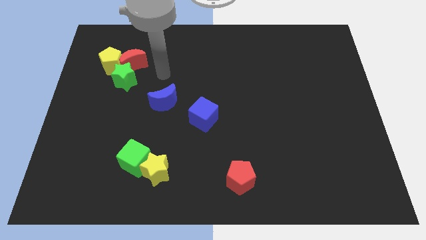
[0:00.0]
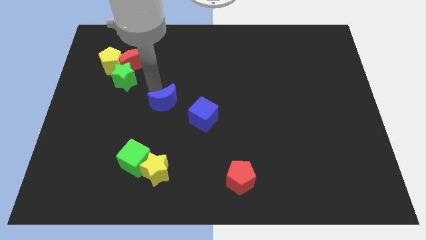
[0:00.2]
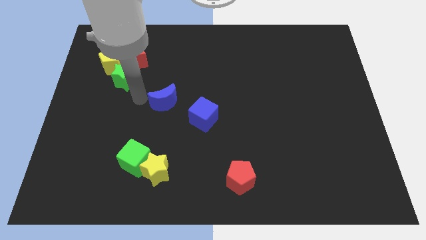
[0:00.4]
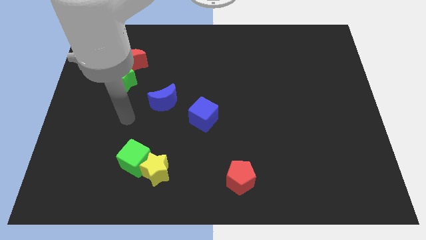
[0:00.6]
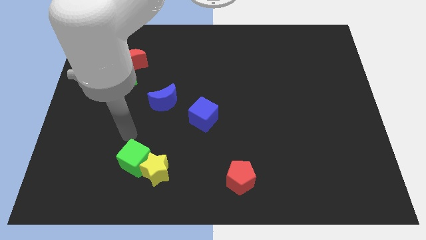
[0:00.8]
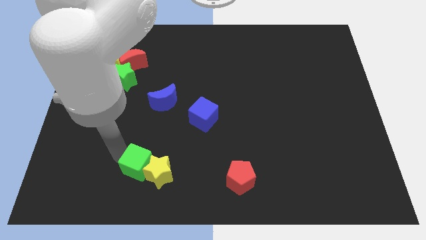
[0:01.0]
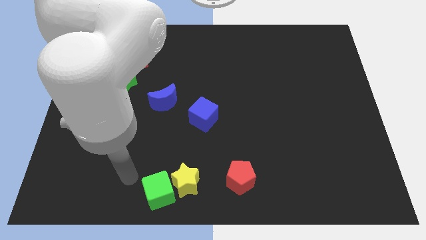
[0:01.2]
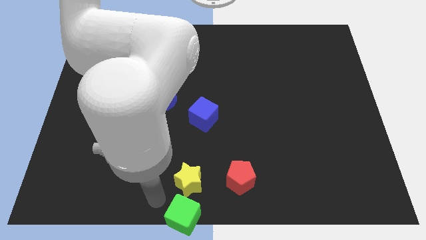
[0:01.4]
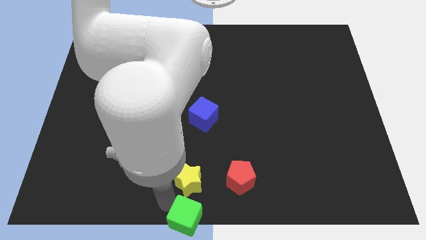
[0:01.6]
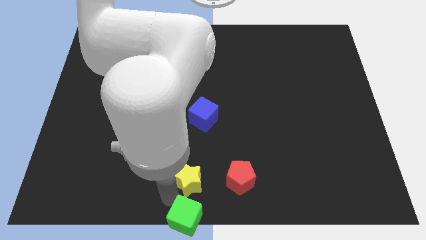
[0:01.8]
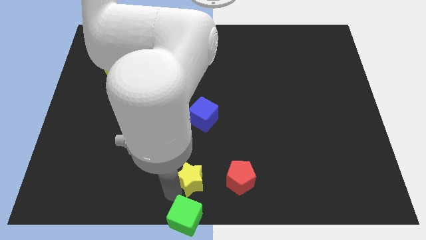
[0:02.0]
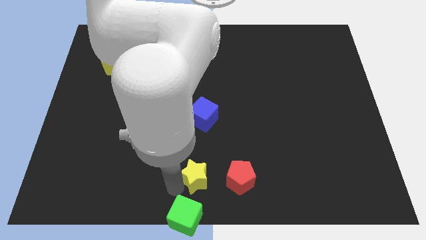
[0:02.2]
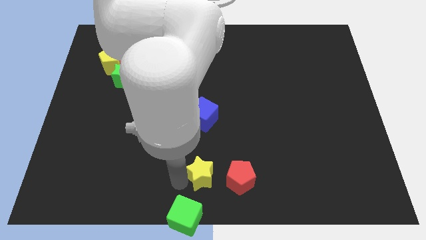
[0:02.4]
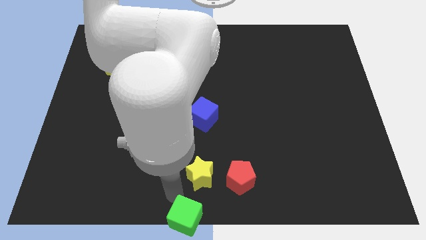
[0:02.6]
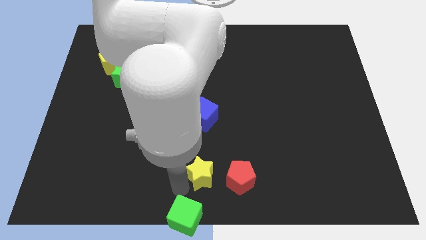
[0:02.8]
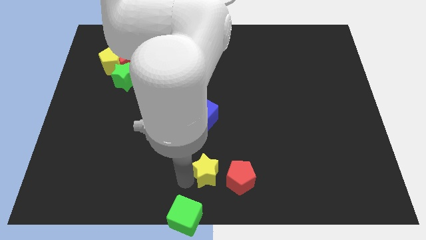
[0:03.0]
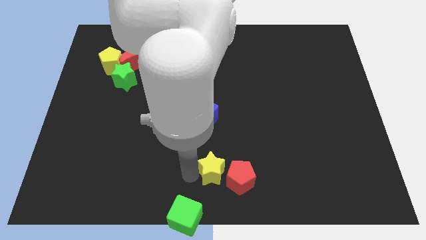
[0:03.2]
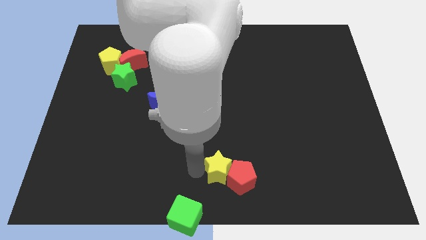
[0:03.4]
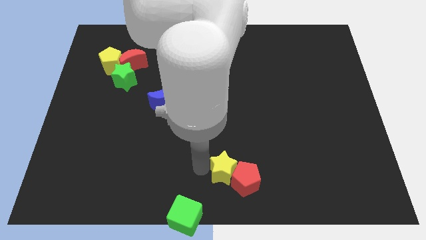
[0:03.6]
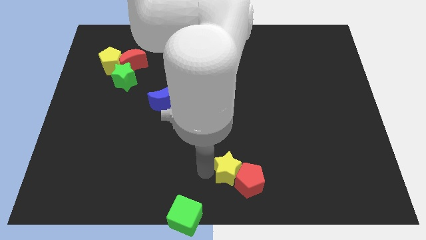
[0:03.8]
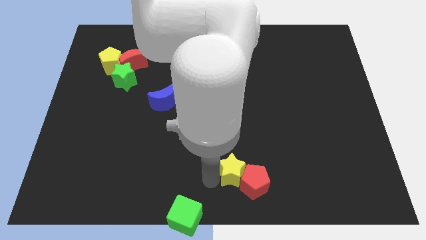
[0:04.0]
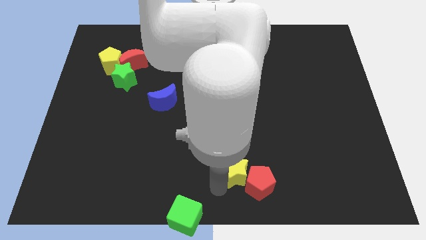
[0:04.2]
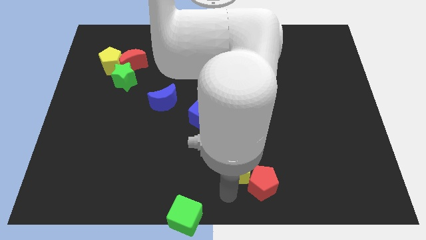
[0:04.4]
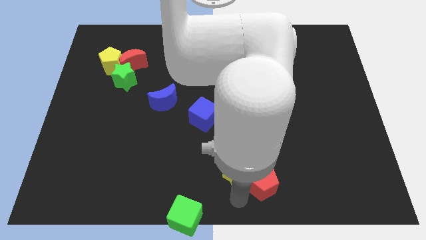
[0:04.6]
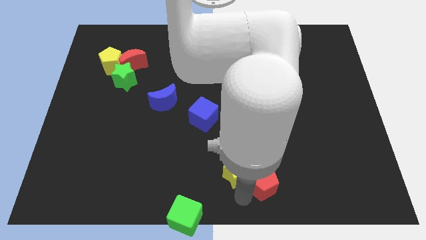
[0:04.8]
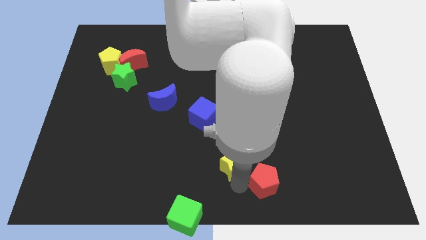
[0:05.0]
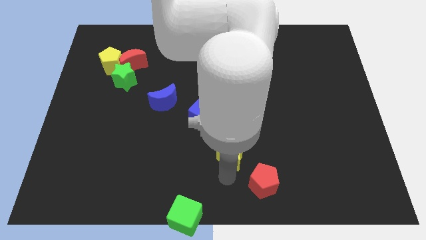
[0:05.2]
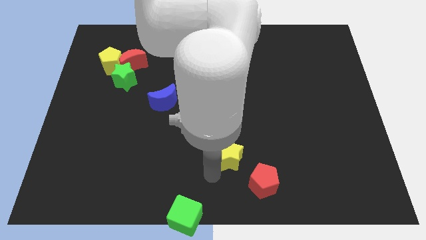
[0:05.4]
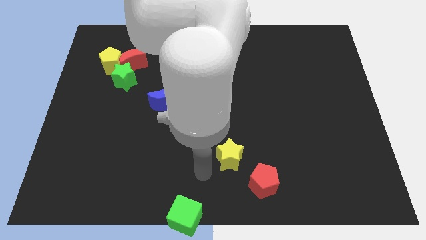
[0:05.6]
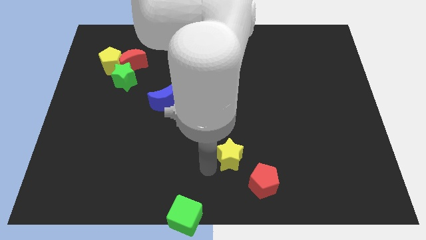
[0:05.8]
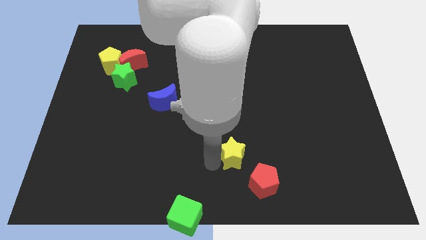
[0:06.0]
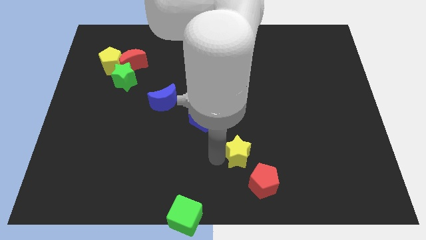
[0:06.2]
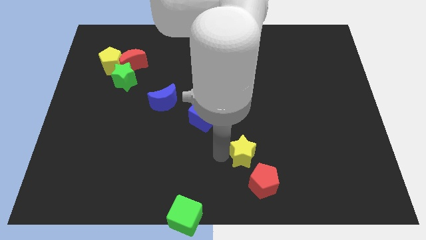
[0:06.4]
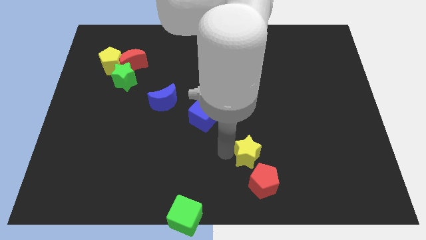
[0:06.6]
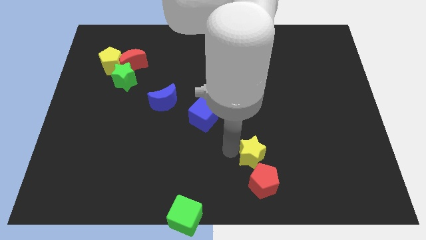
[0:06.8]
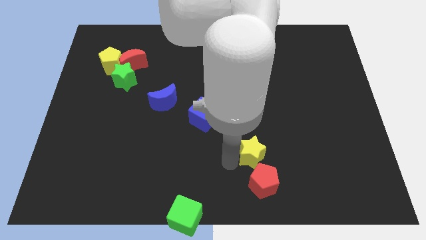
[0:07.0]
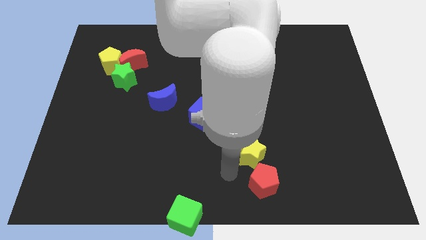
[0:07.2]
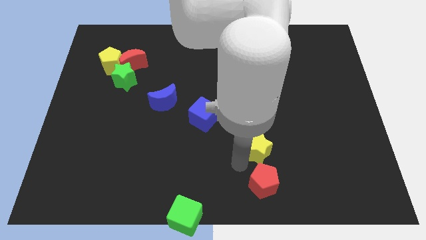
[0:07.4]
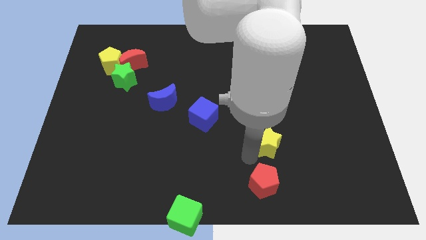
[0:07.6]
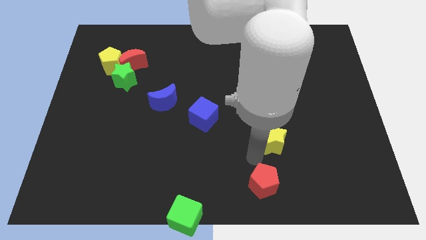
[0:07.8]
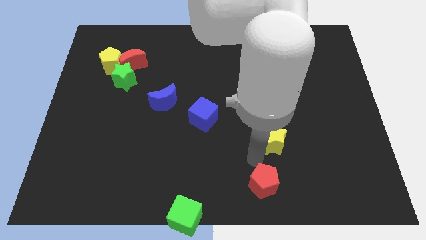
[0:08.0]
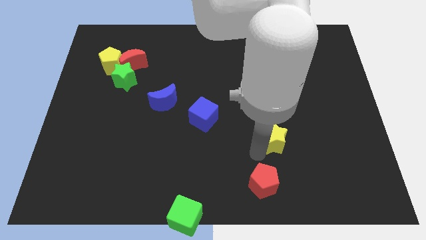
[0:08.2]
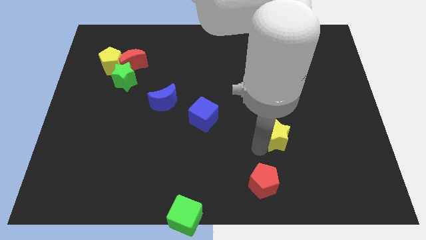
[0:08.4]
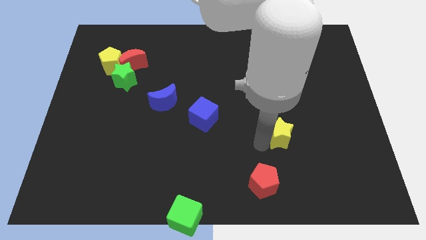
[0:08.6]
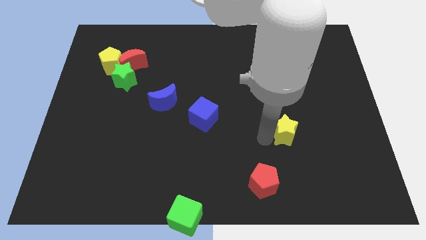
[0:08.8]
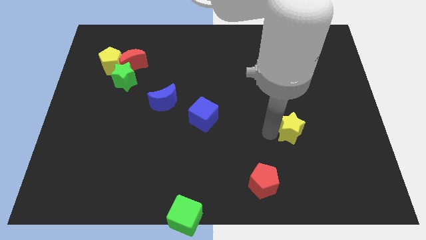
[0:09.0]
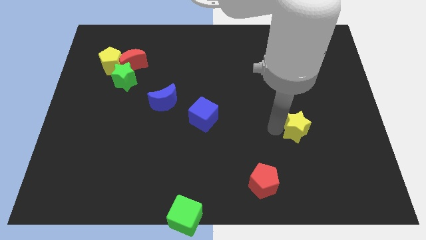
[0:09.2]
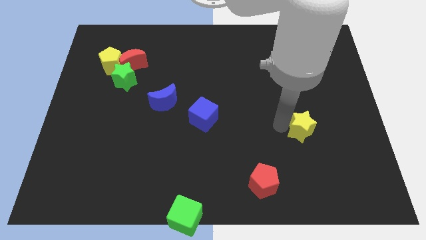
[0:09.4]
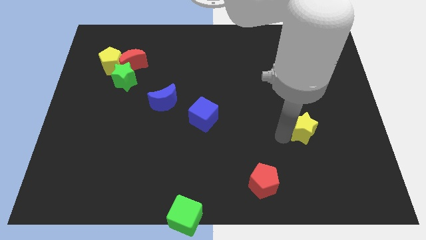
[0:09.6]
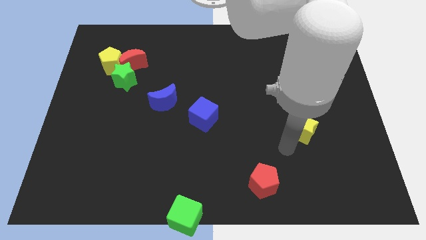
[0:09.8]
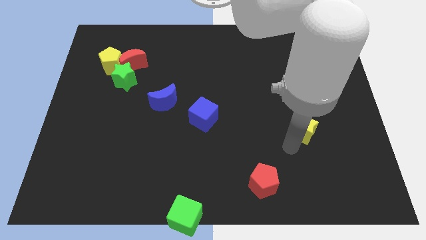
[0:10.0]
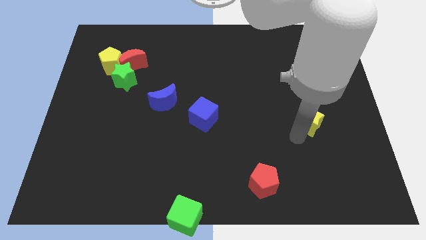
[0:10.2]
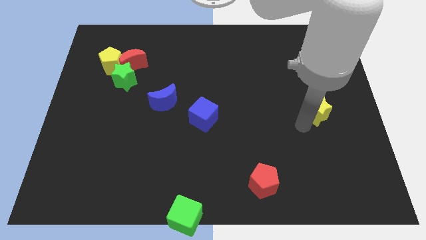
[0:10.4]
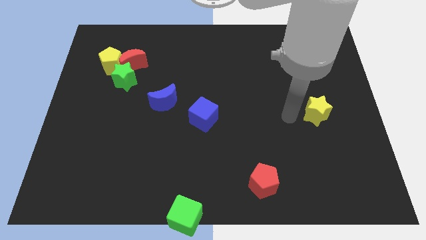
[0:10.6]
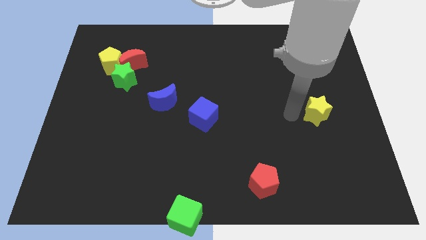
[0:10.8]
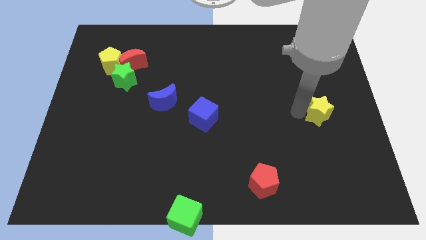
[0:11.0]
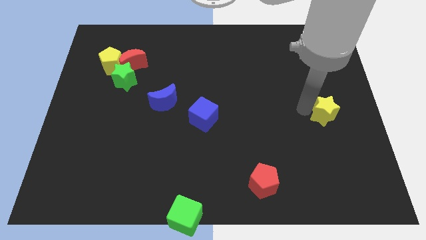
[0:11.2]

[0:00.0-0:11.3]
slide the yellow star to the right side

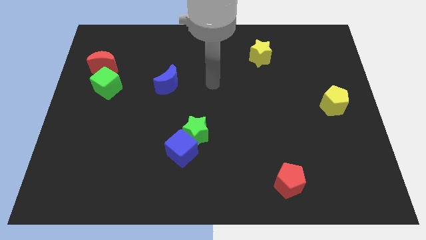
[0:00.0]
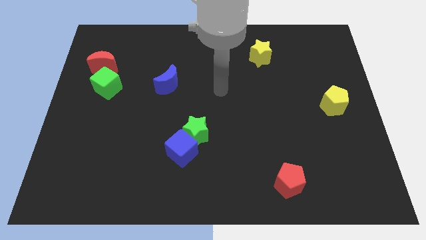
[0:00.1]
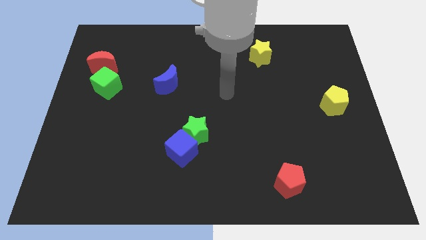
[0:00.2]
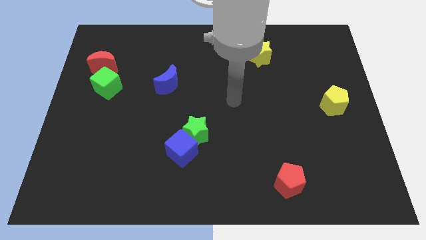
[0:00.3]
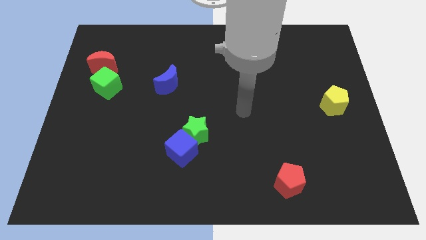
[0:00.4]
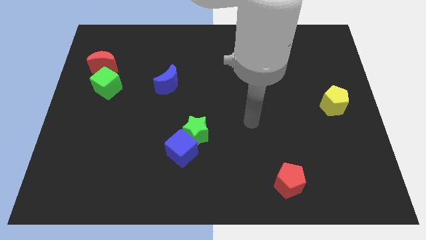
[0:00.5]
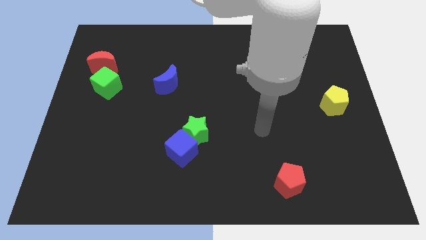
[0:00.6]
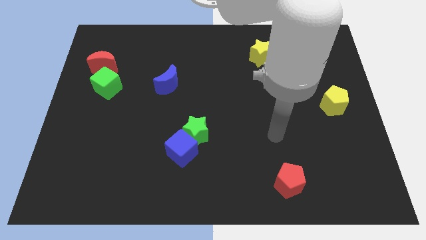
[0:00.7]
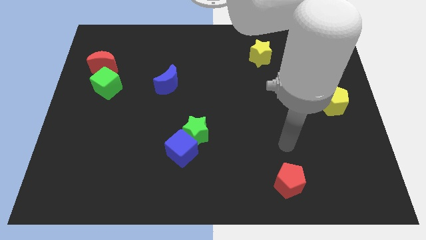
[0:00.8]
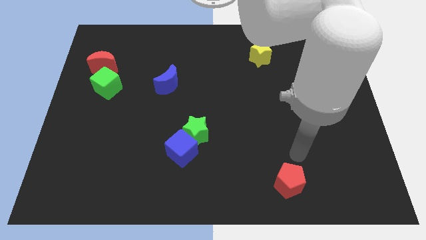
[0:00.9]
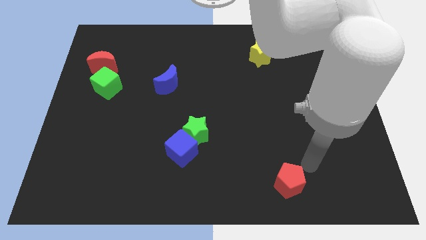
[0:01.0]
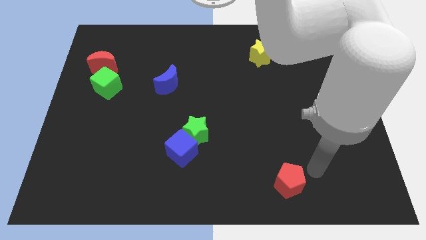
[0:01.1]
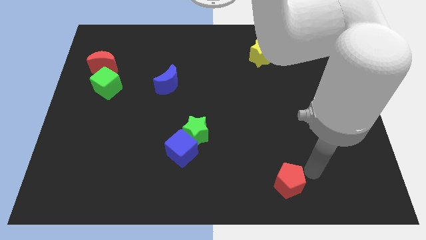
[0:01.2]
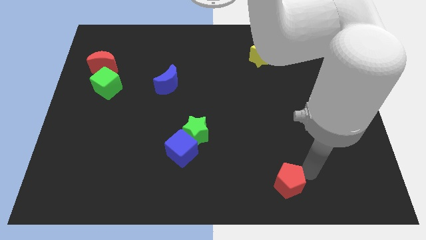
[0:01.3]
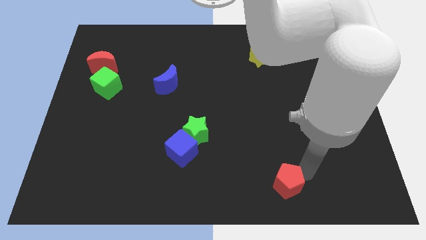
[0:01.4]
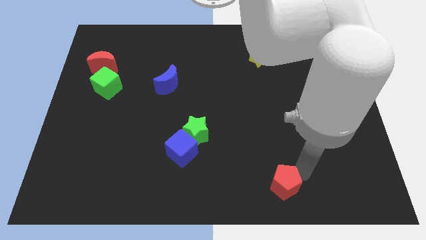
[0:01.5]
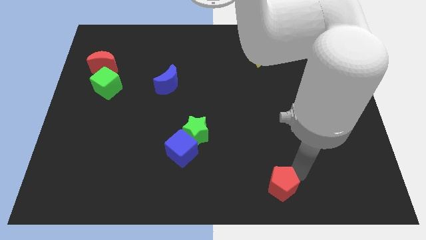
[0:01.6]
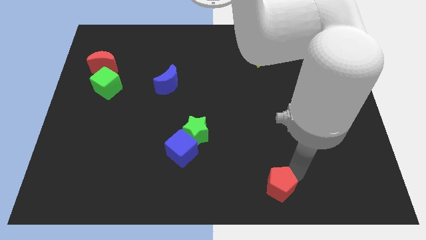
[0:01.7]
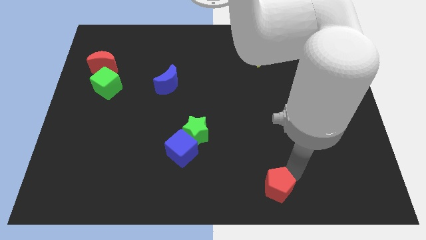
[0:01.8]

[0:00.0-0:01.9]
move the red pentagon to the bottom side
